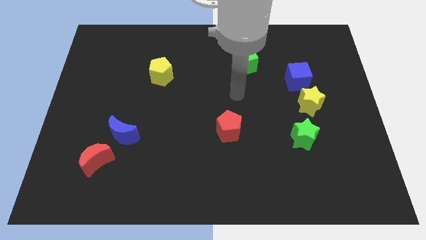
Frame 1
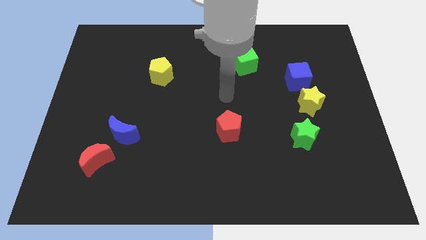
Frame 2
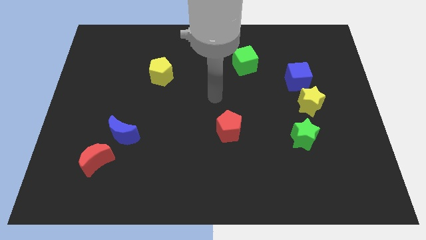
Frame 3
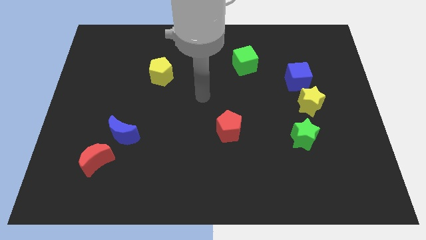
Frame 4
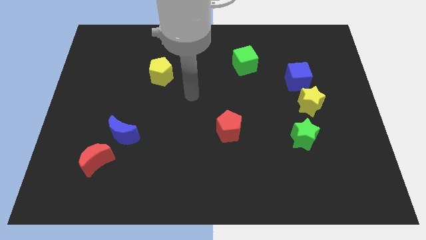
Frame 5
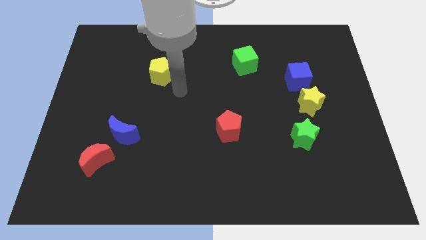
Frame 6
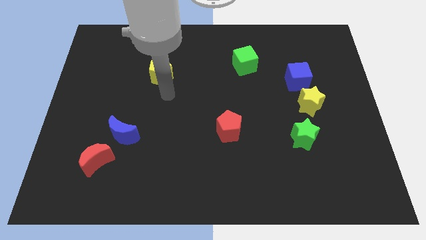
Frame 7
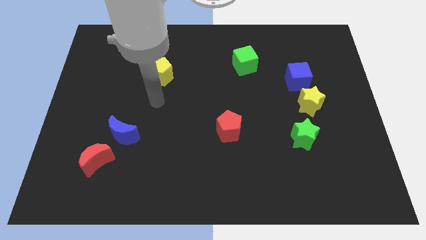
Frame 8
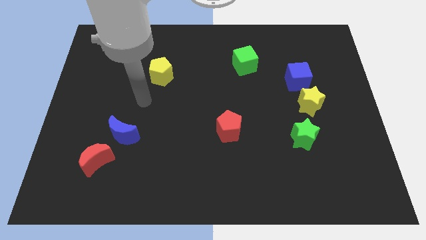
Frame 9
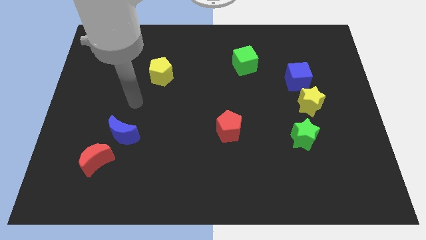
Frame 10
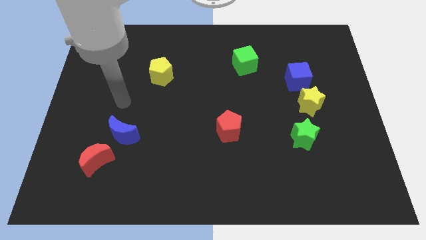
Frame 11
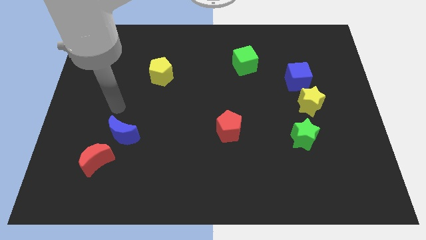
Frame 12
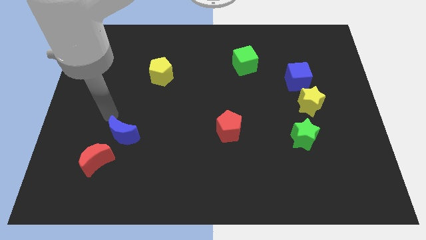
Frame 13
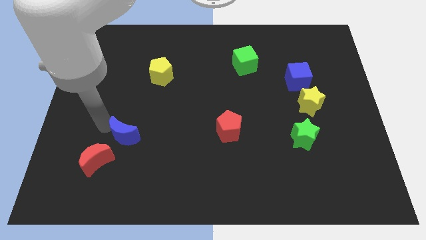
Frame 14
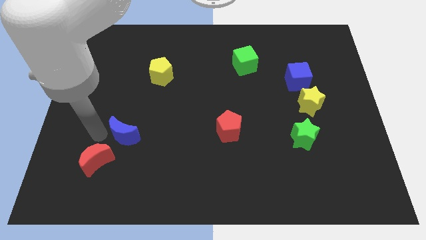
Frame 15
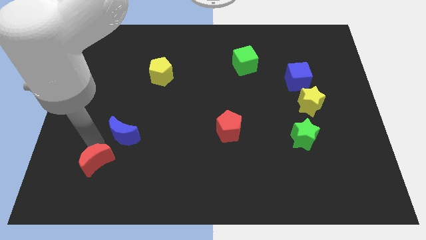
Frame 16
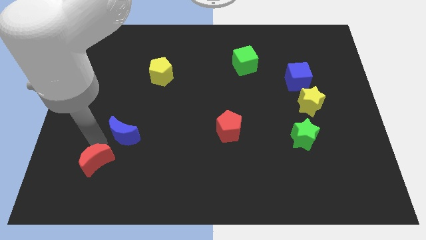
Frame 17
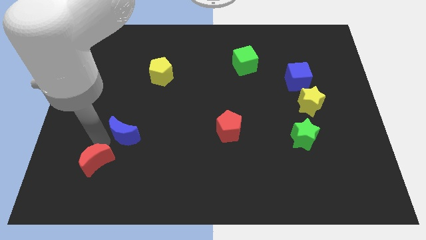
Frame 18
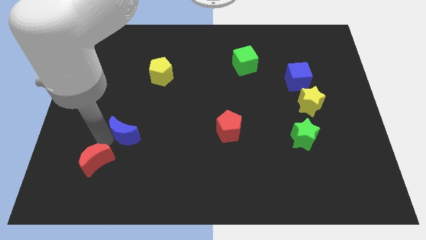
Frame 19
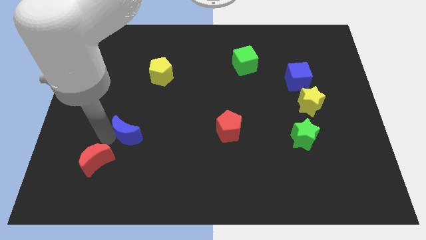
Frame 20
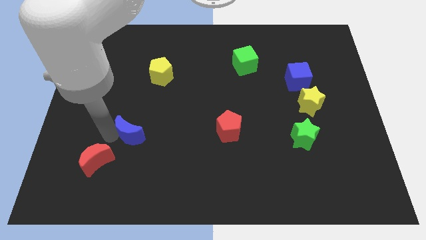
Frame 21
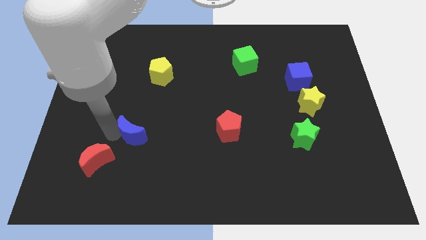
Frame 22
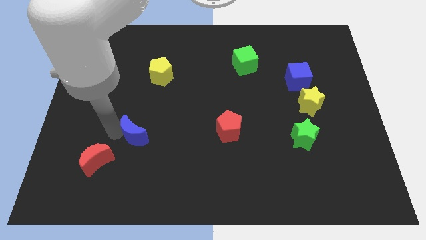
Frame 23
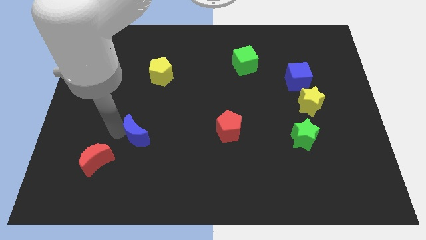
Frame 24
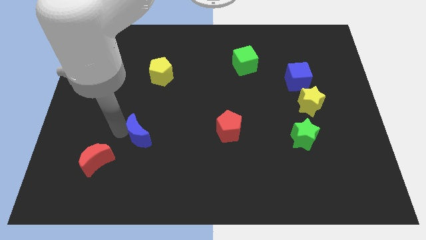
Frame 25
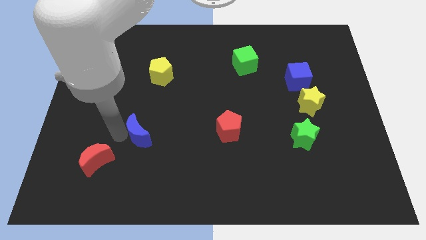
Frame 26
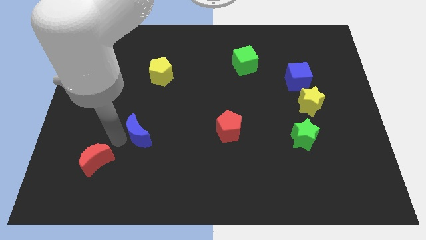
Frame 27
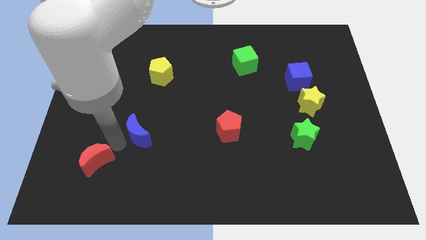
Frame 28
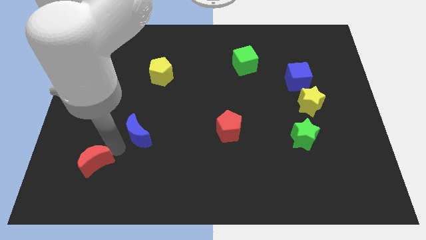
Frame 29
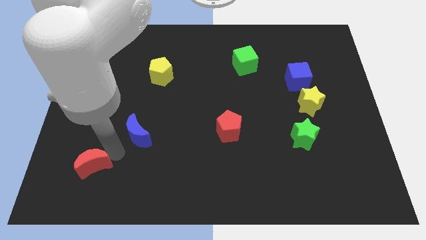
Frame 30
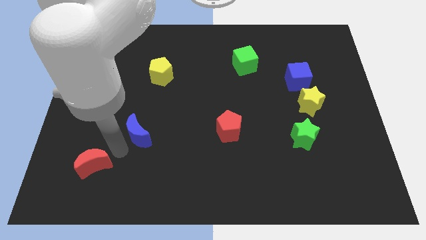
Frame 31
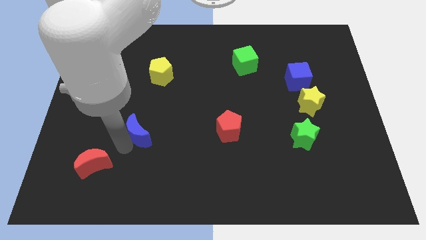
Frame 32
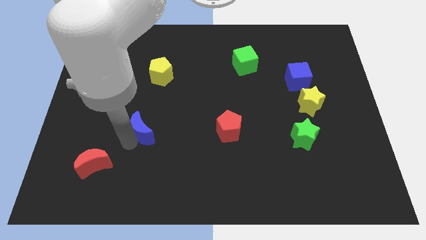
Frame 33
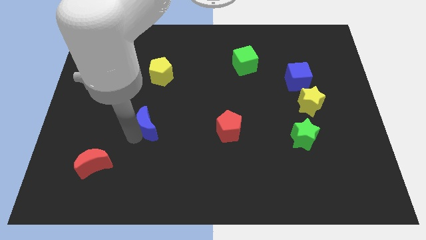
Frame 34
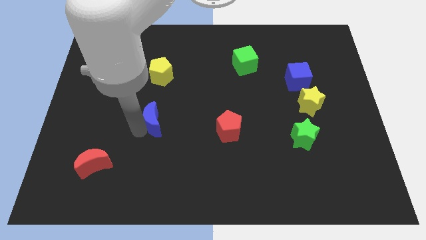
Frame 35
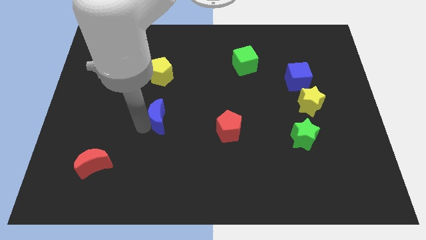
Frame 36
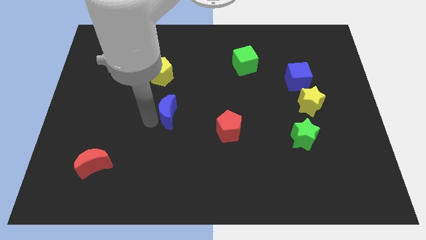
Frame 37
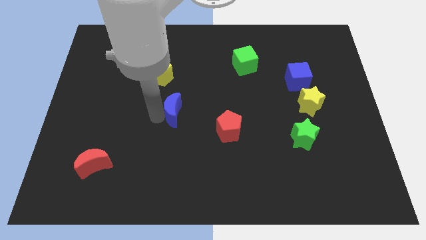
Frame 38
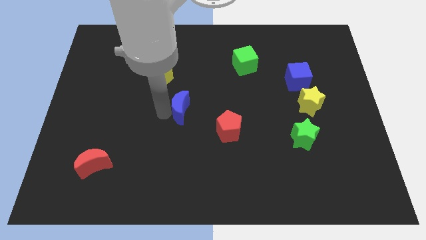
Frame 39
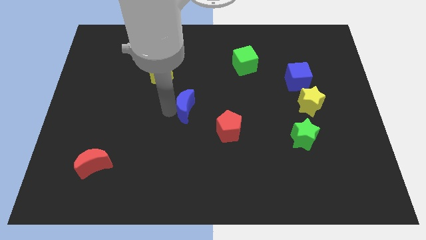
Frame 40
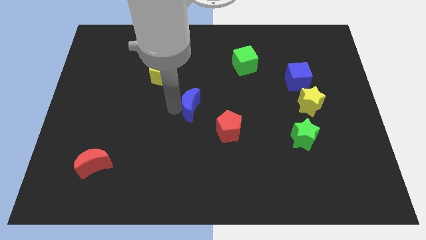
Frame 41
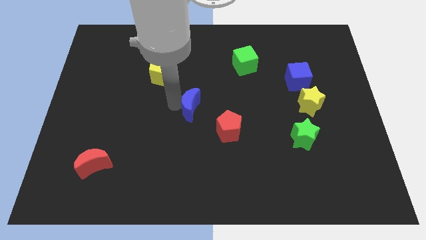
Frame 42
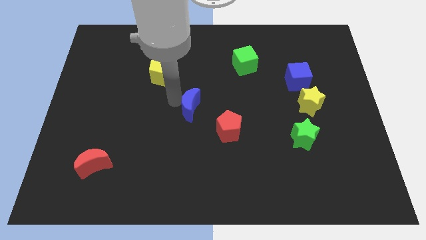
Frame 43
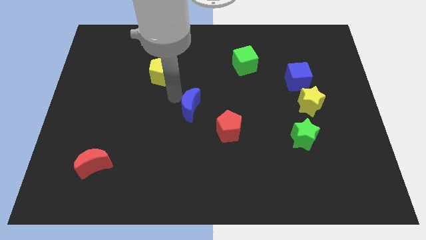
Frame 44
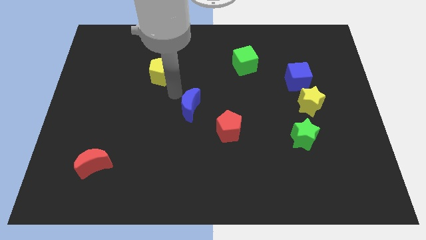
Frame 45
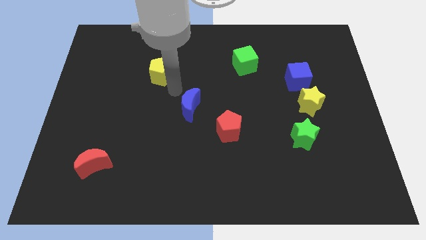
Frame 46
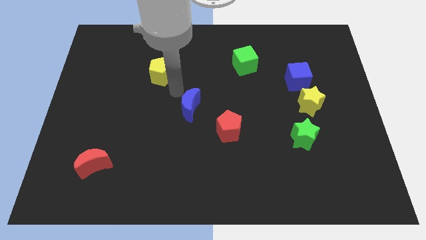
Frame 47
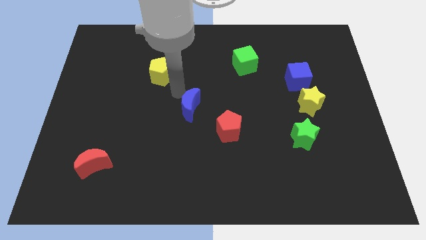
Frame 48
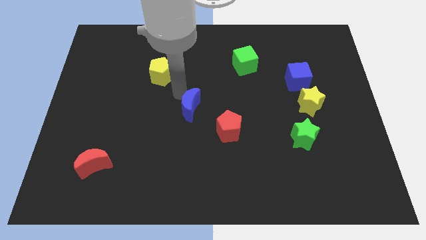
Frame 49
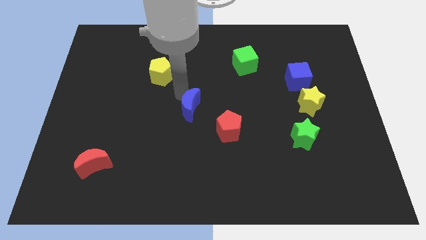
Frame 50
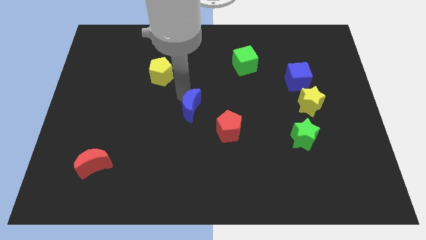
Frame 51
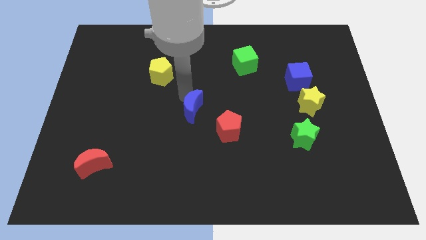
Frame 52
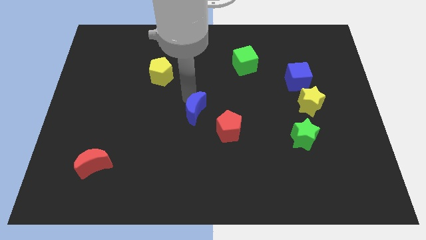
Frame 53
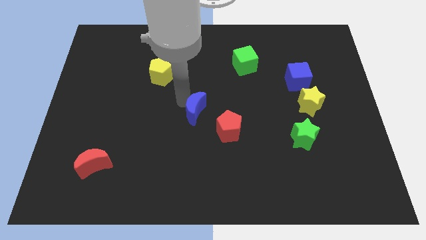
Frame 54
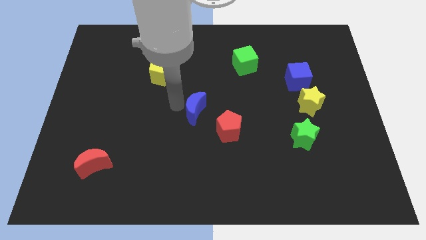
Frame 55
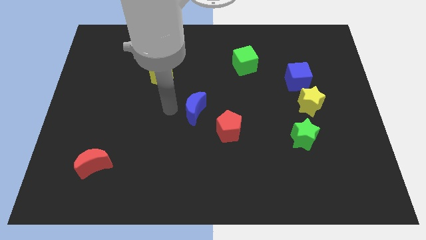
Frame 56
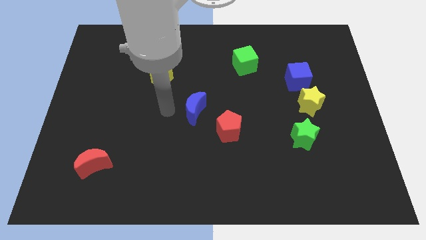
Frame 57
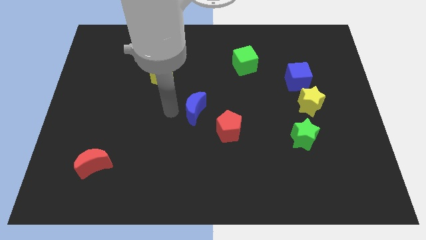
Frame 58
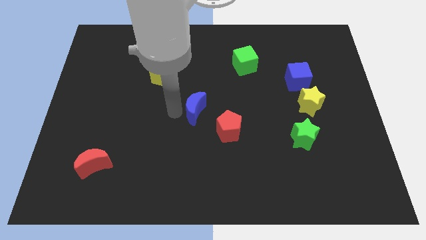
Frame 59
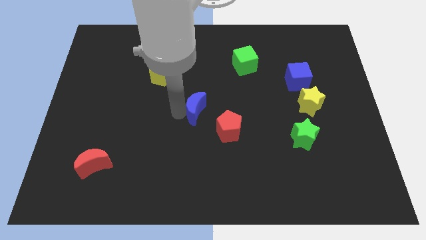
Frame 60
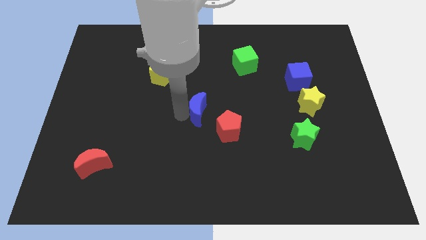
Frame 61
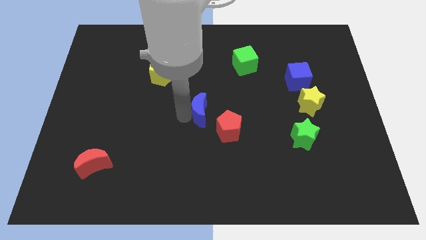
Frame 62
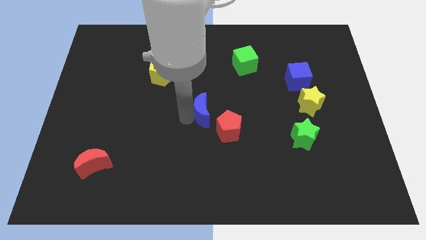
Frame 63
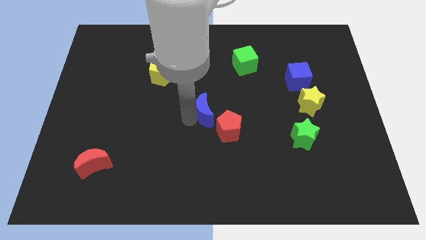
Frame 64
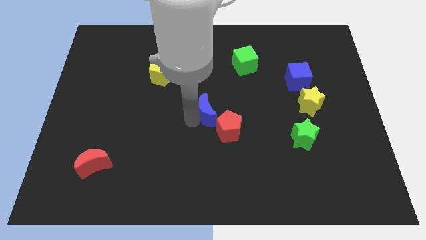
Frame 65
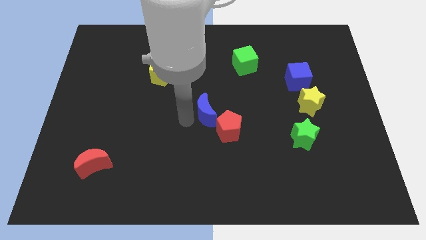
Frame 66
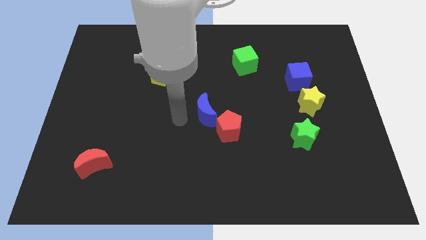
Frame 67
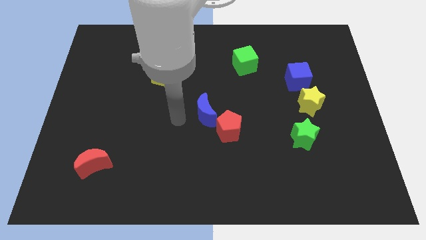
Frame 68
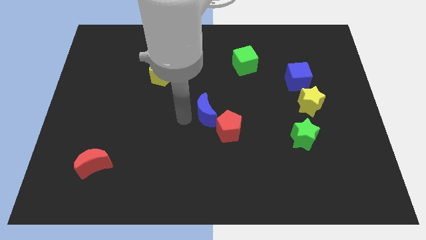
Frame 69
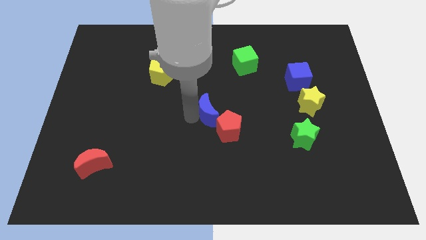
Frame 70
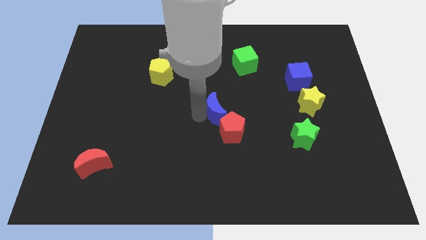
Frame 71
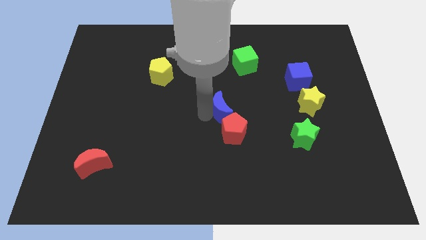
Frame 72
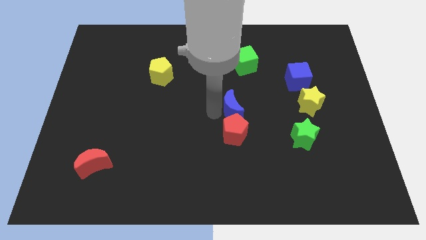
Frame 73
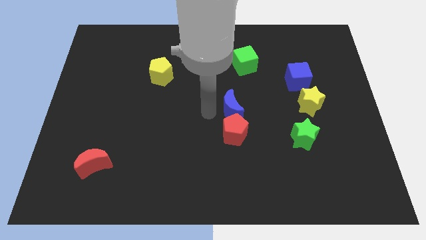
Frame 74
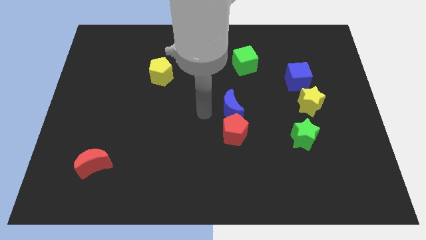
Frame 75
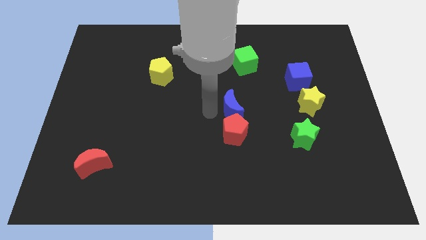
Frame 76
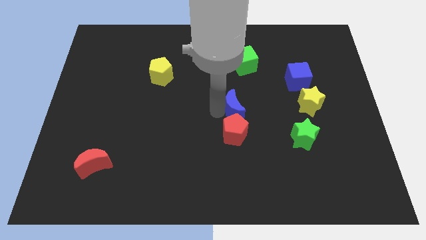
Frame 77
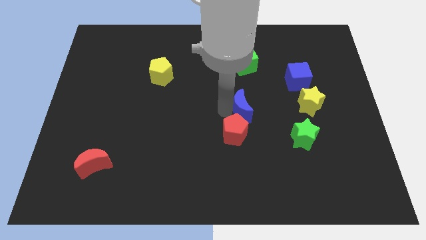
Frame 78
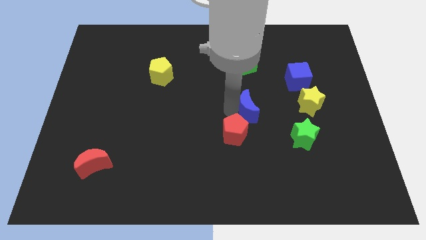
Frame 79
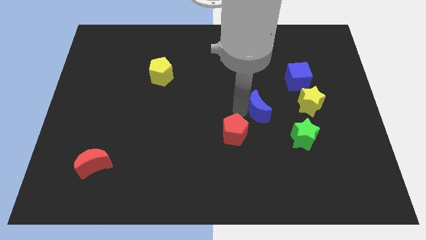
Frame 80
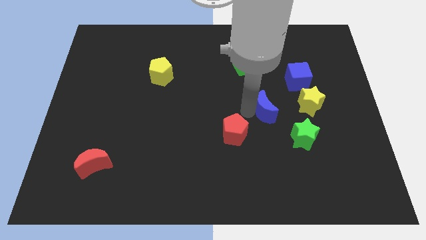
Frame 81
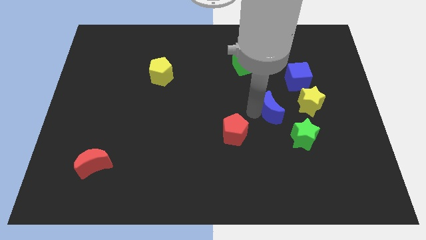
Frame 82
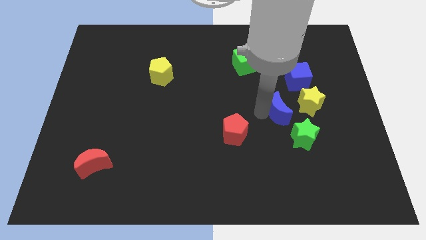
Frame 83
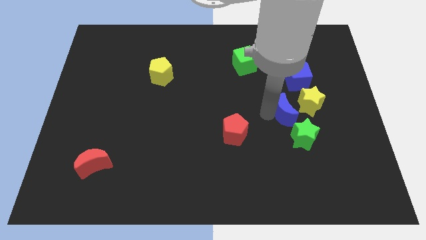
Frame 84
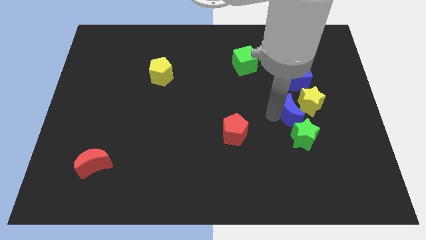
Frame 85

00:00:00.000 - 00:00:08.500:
slide the blue moon close to the yellow star
